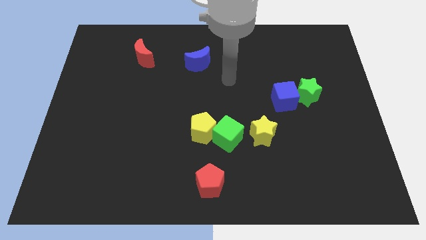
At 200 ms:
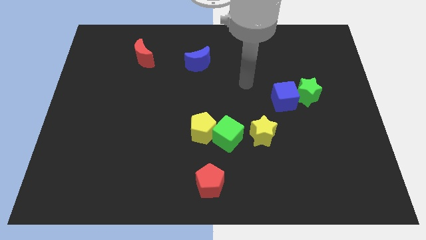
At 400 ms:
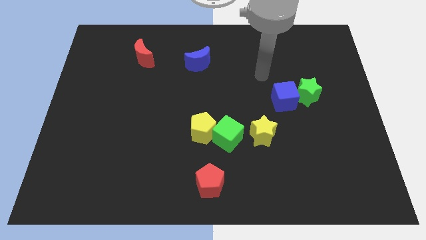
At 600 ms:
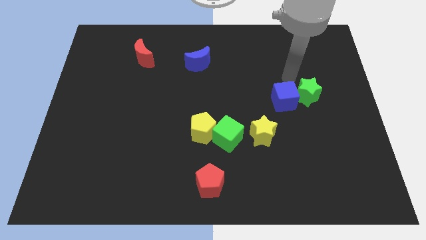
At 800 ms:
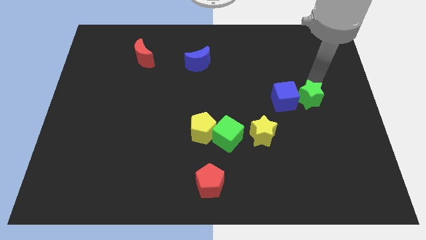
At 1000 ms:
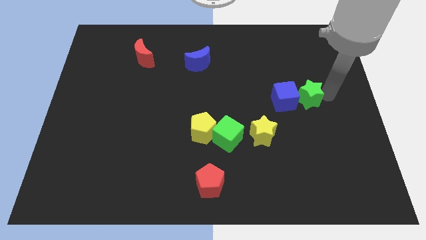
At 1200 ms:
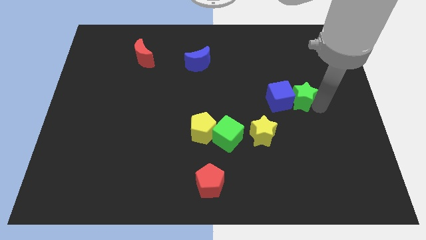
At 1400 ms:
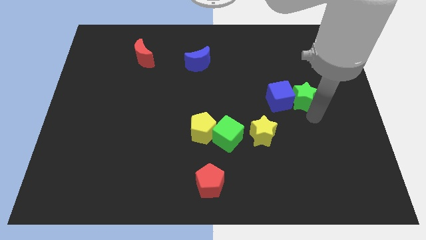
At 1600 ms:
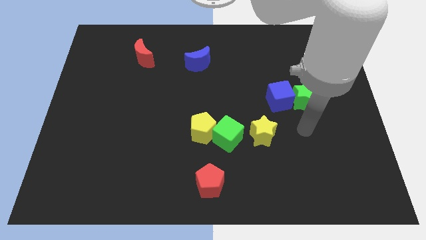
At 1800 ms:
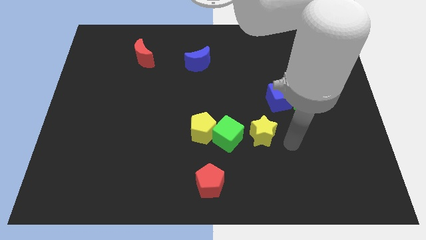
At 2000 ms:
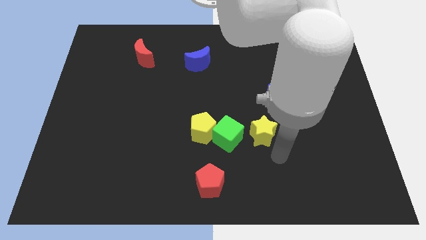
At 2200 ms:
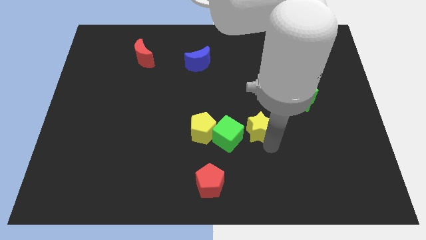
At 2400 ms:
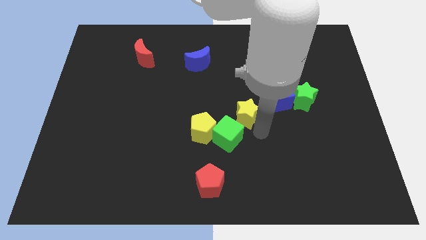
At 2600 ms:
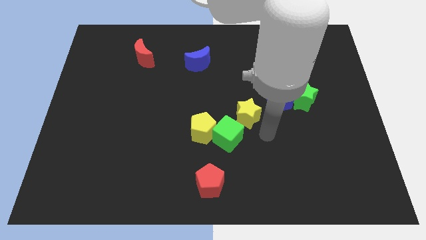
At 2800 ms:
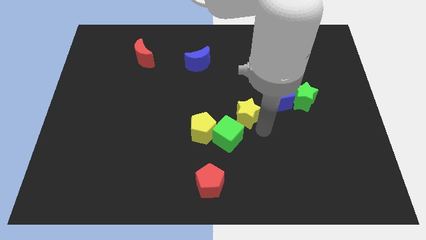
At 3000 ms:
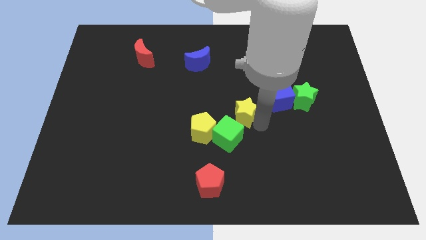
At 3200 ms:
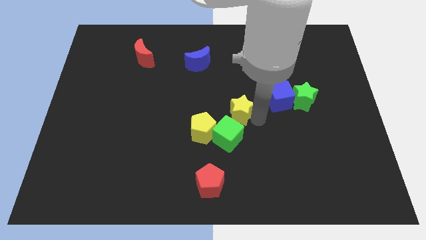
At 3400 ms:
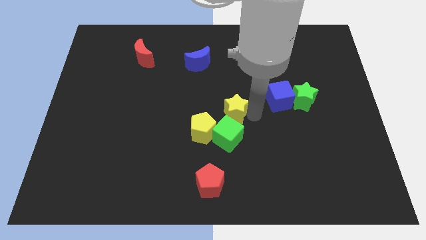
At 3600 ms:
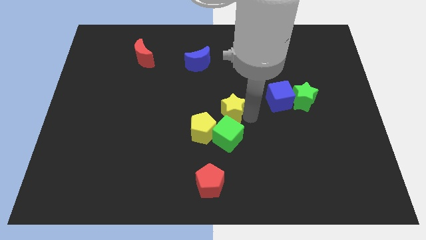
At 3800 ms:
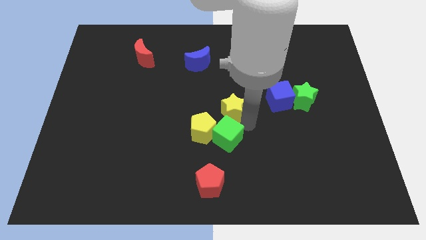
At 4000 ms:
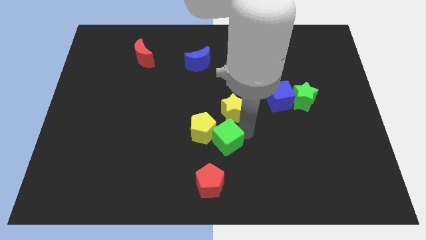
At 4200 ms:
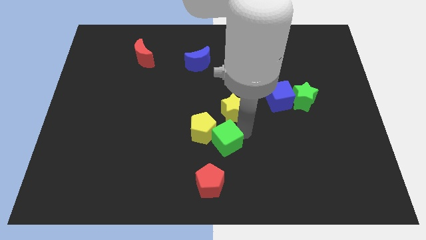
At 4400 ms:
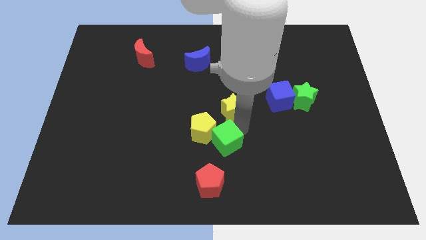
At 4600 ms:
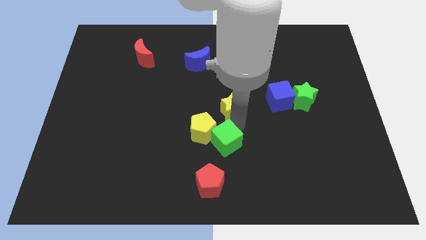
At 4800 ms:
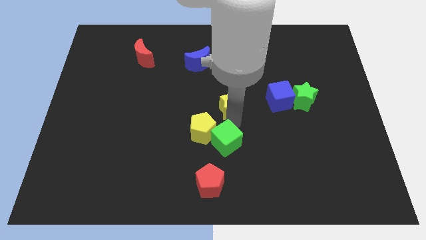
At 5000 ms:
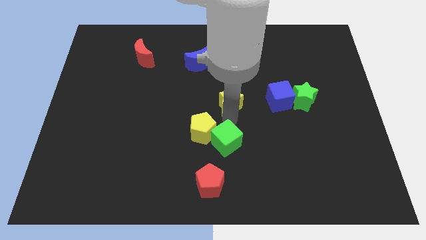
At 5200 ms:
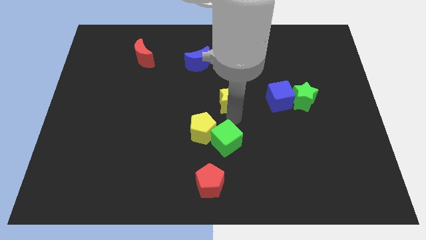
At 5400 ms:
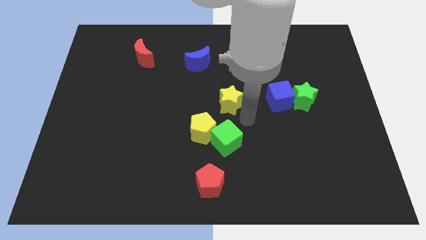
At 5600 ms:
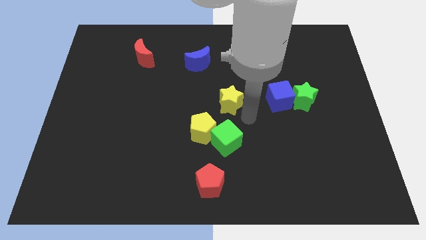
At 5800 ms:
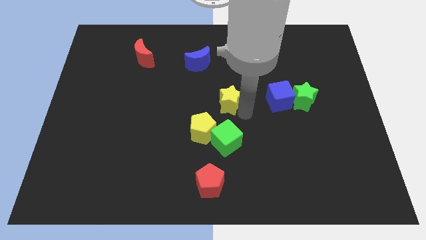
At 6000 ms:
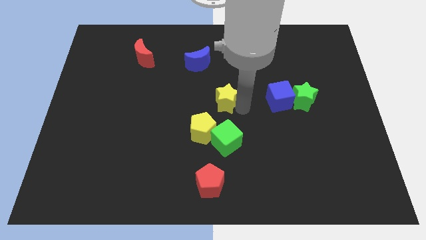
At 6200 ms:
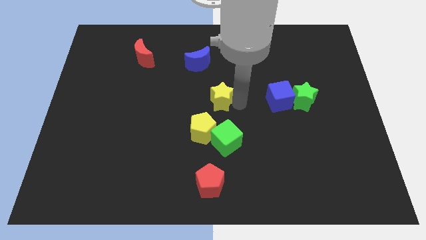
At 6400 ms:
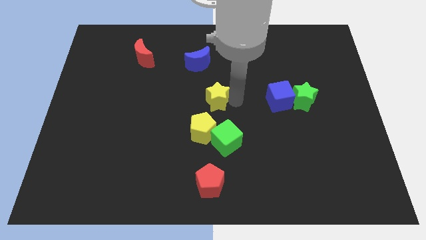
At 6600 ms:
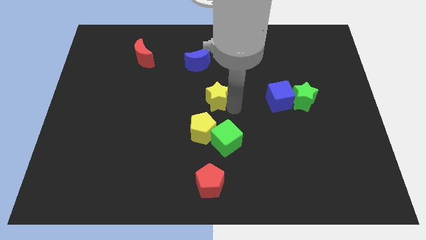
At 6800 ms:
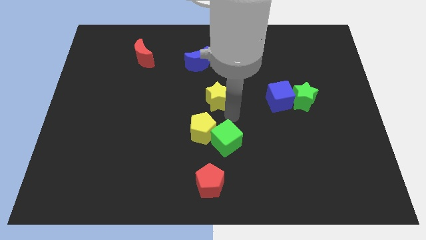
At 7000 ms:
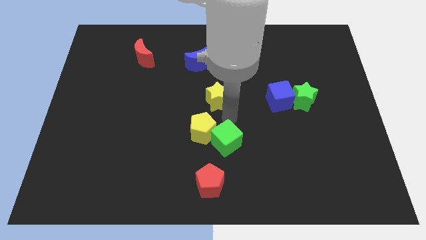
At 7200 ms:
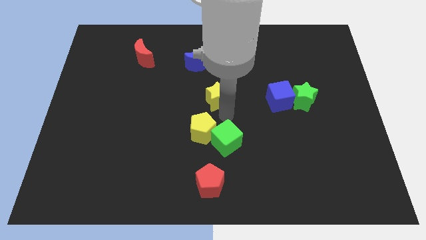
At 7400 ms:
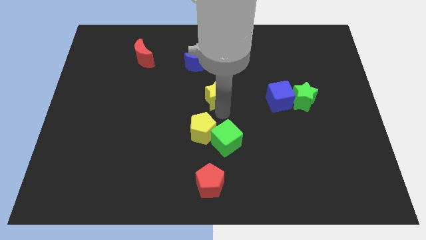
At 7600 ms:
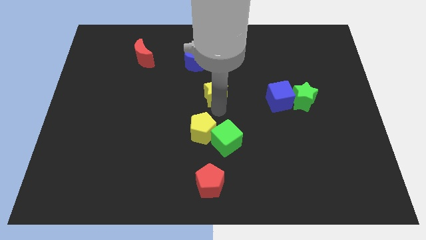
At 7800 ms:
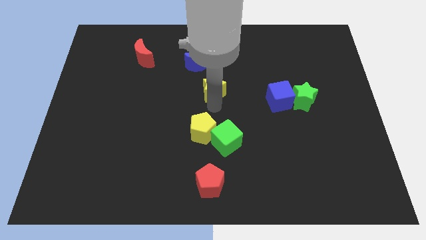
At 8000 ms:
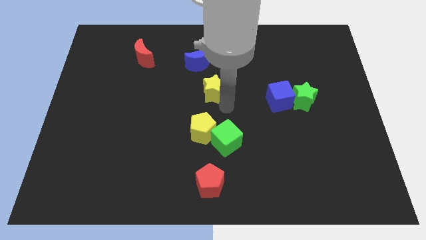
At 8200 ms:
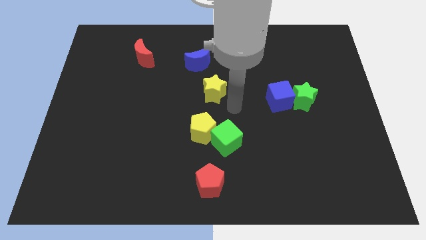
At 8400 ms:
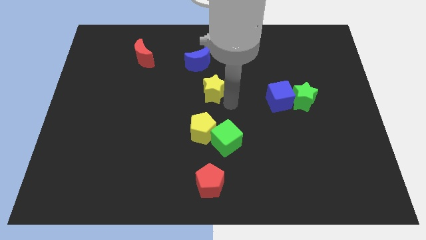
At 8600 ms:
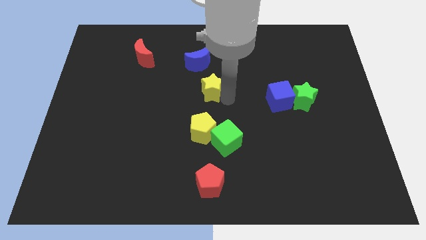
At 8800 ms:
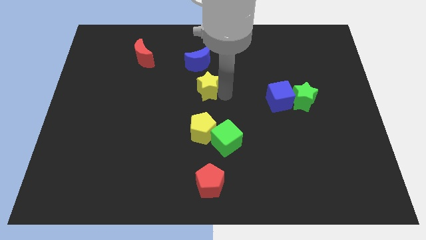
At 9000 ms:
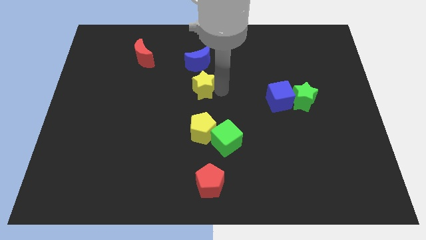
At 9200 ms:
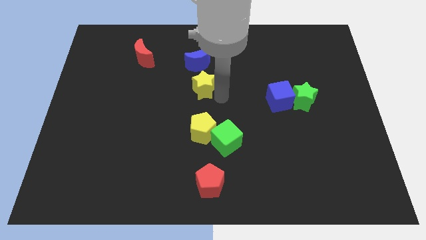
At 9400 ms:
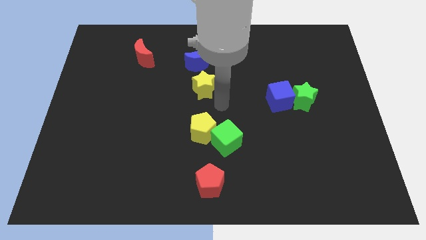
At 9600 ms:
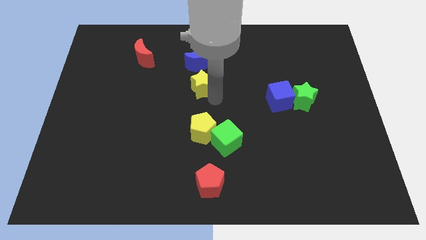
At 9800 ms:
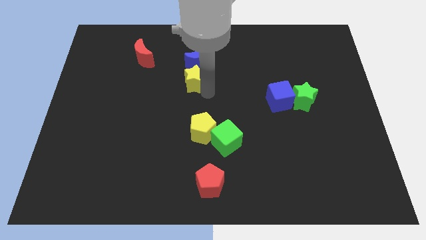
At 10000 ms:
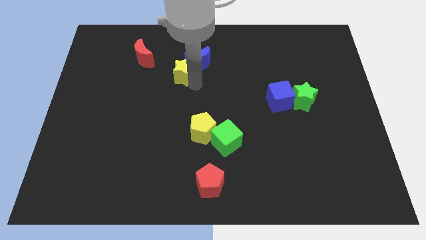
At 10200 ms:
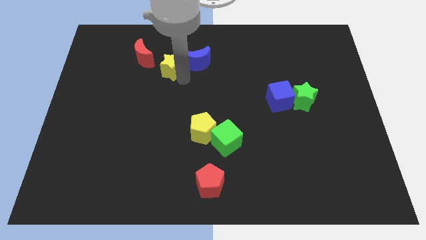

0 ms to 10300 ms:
move the yellow star just right of the red moon

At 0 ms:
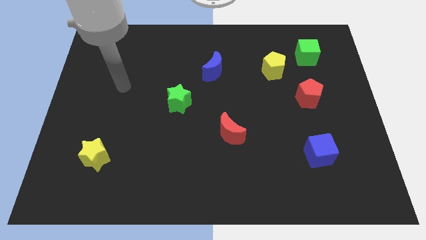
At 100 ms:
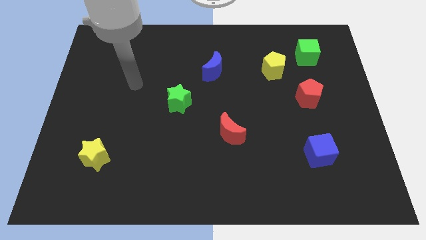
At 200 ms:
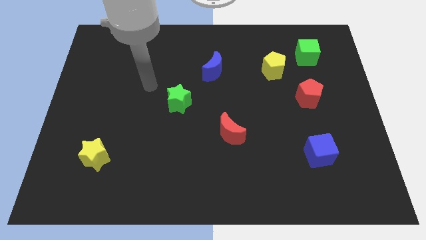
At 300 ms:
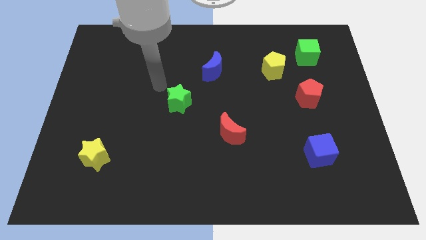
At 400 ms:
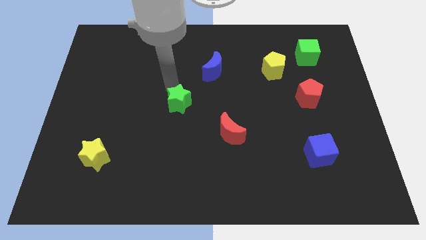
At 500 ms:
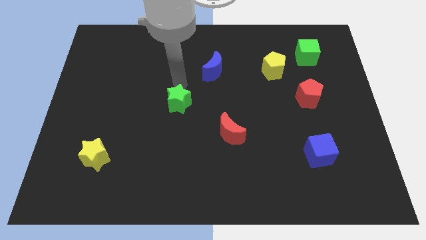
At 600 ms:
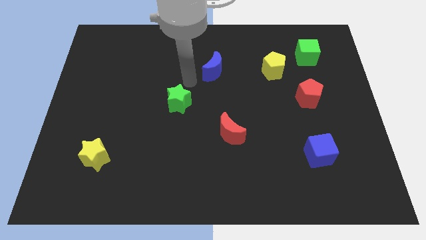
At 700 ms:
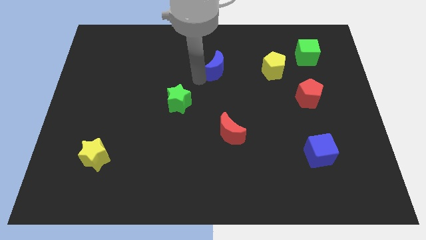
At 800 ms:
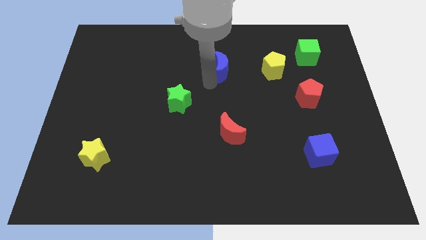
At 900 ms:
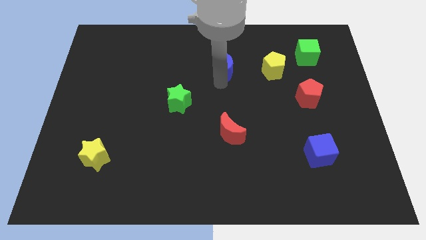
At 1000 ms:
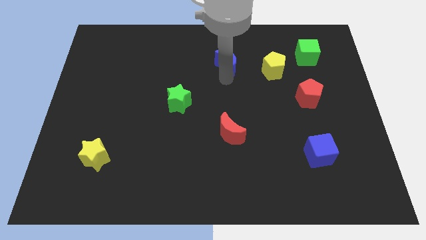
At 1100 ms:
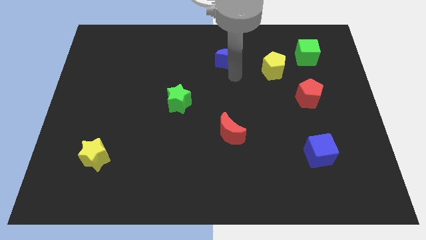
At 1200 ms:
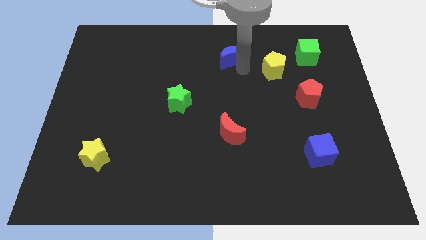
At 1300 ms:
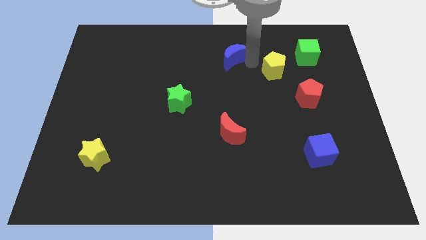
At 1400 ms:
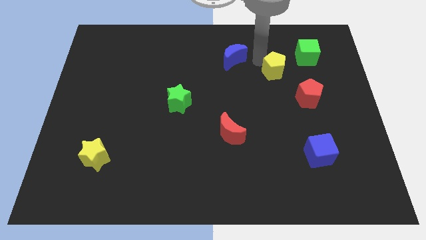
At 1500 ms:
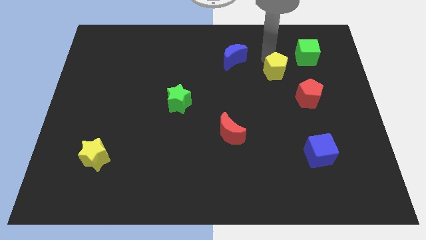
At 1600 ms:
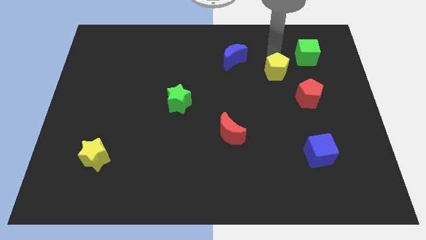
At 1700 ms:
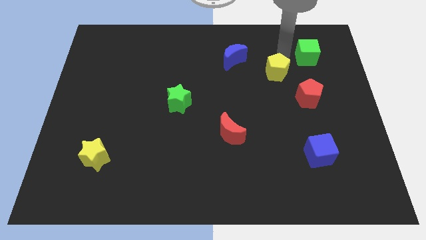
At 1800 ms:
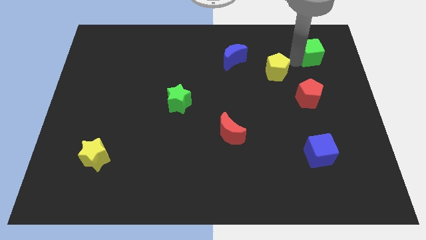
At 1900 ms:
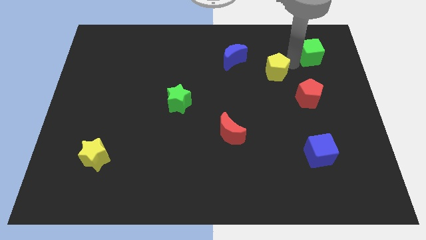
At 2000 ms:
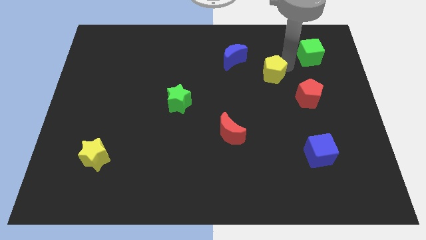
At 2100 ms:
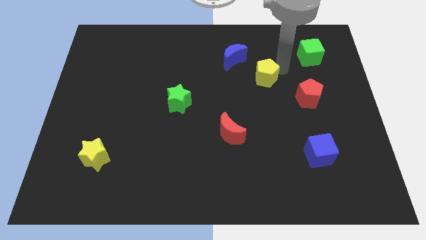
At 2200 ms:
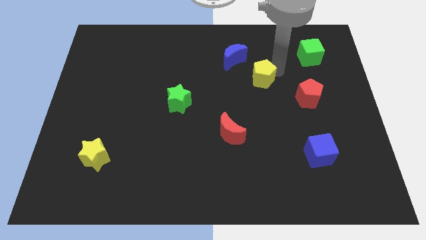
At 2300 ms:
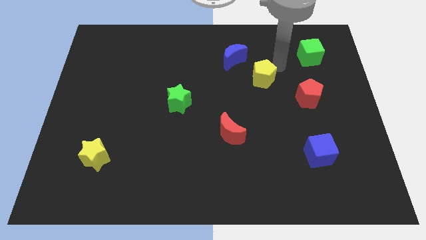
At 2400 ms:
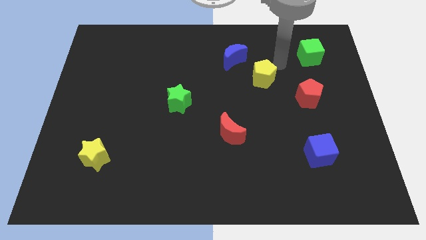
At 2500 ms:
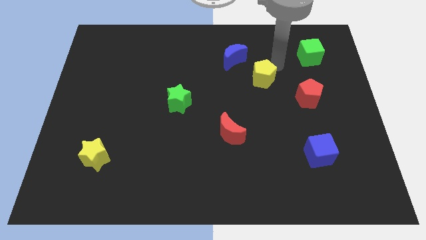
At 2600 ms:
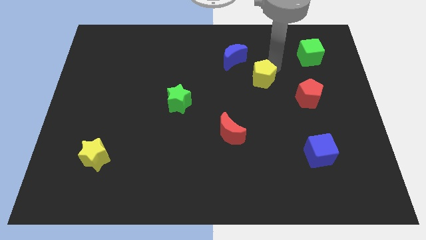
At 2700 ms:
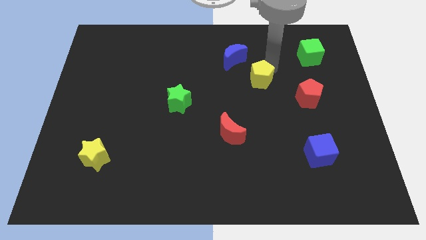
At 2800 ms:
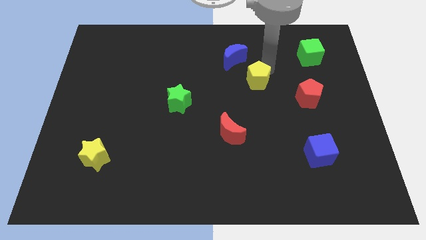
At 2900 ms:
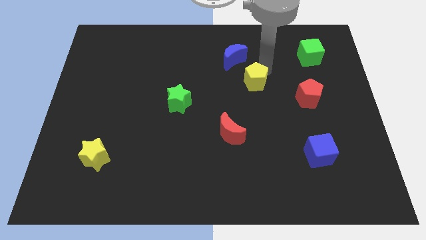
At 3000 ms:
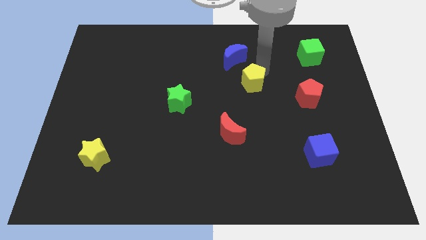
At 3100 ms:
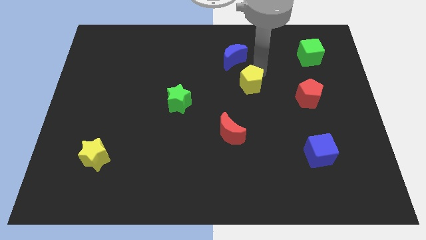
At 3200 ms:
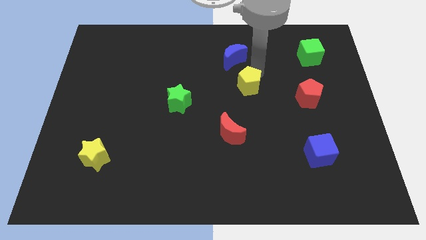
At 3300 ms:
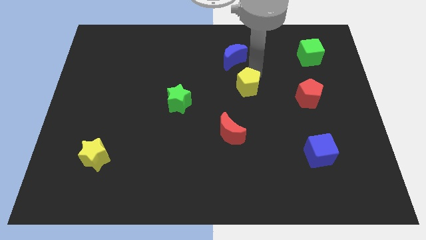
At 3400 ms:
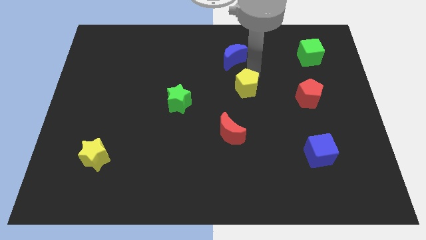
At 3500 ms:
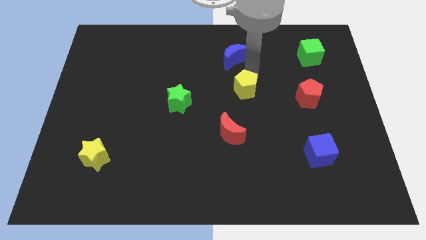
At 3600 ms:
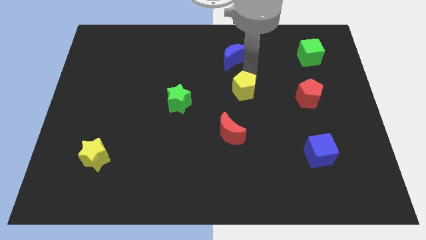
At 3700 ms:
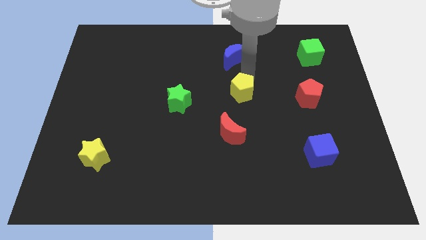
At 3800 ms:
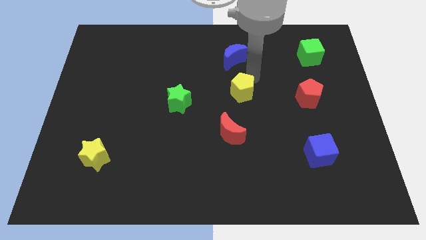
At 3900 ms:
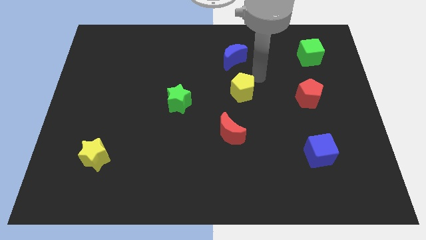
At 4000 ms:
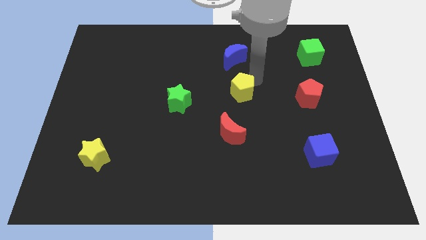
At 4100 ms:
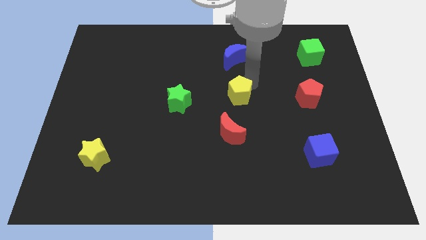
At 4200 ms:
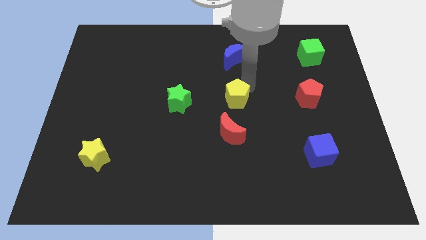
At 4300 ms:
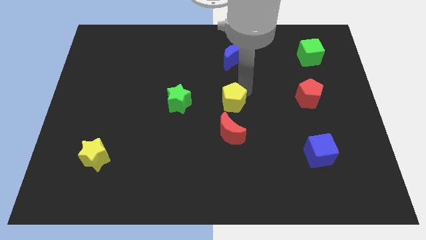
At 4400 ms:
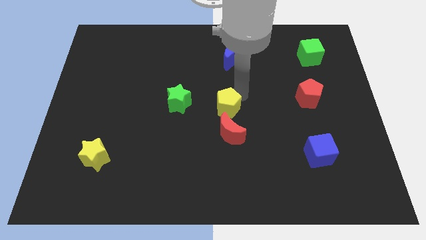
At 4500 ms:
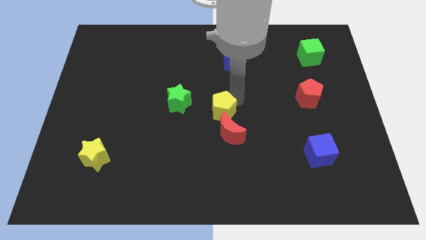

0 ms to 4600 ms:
put the yellow pentagon to the top left of the red moon
